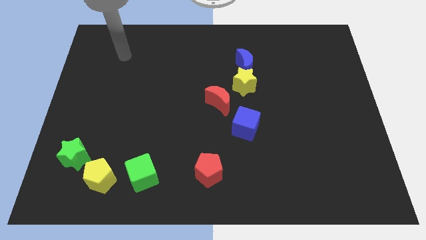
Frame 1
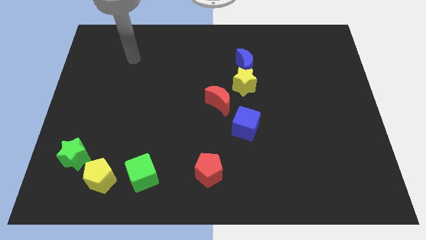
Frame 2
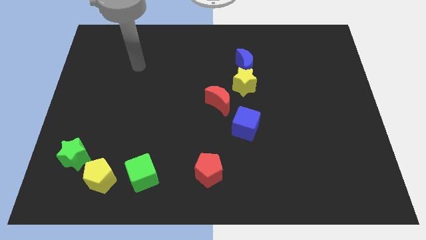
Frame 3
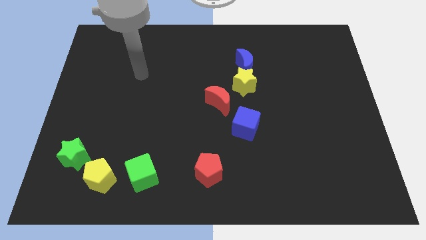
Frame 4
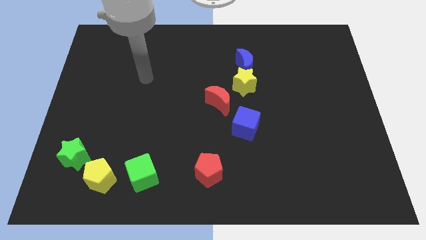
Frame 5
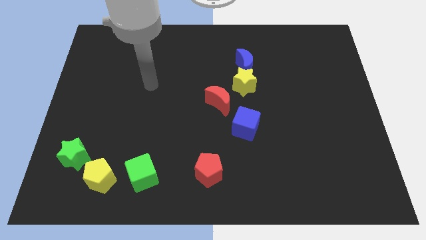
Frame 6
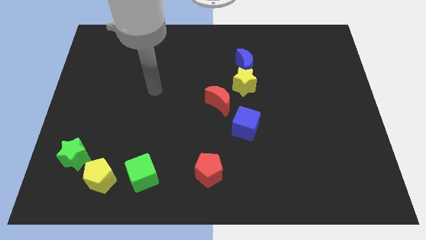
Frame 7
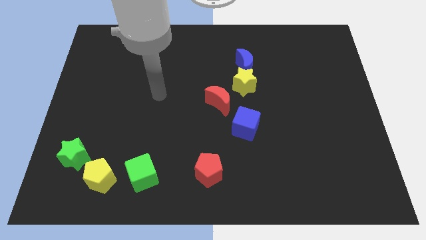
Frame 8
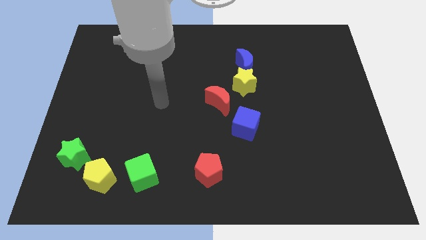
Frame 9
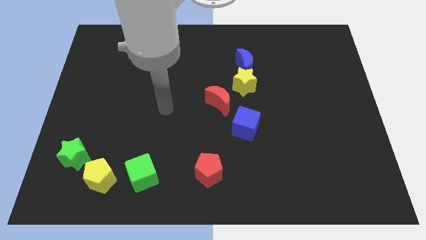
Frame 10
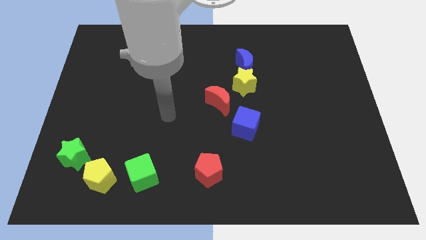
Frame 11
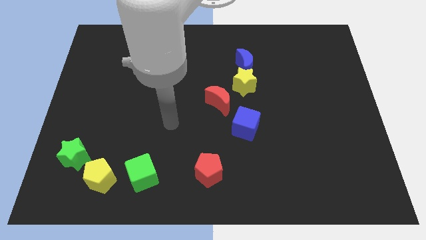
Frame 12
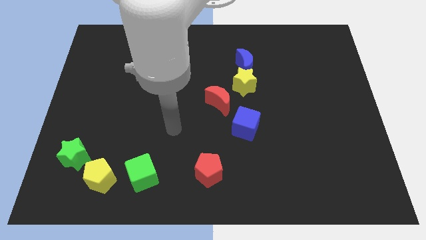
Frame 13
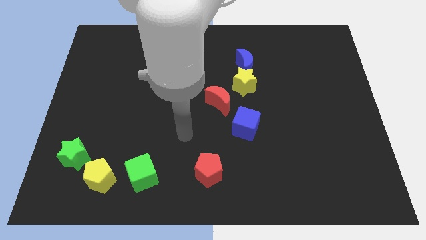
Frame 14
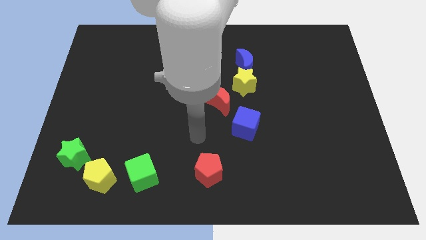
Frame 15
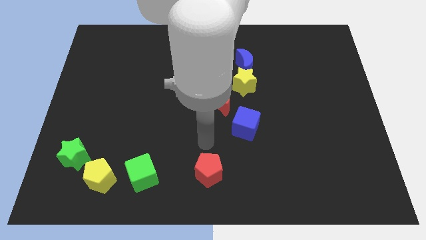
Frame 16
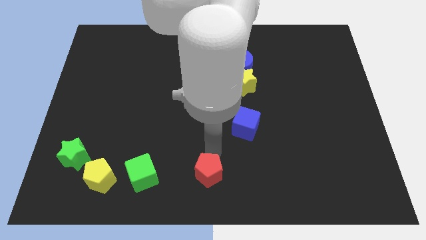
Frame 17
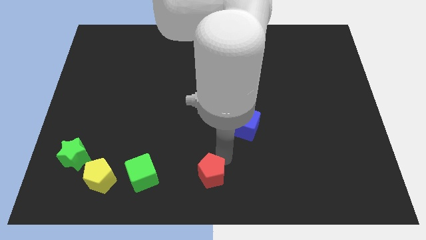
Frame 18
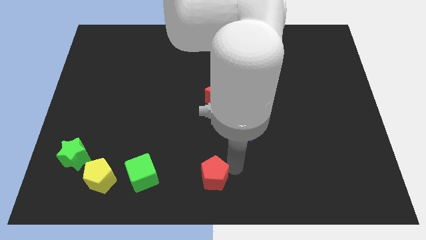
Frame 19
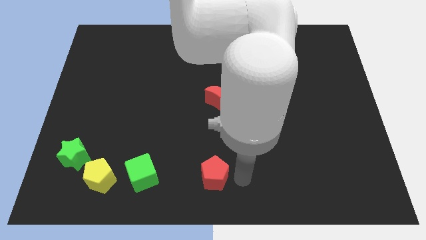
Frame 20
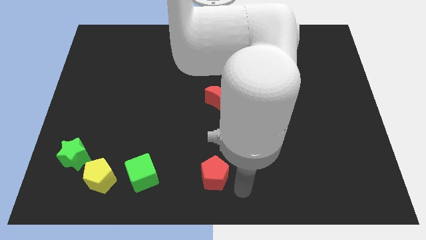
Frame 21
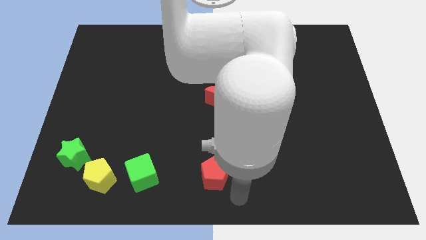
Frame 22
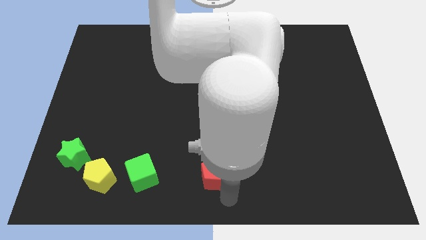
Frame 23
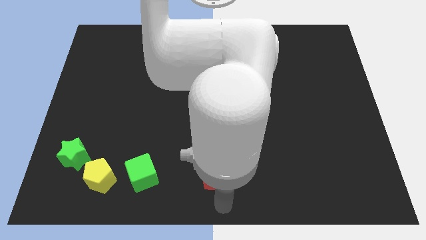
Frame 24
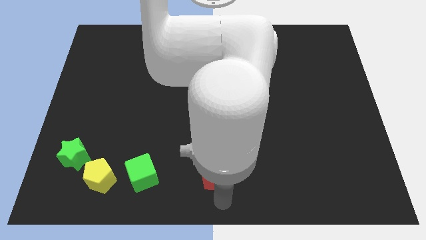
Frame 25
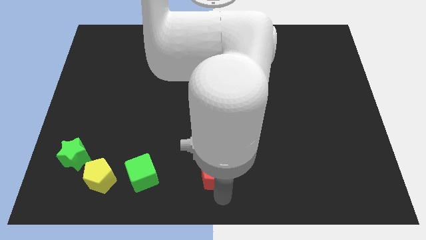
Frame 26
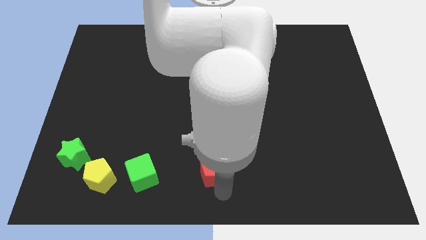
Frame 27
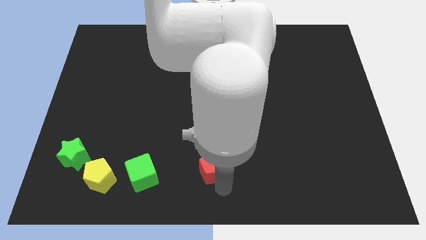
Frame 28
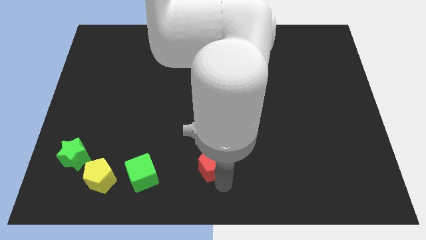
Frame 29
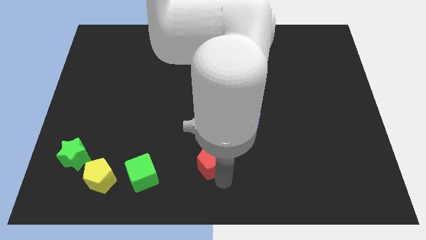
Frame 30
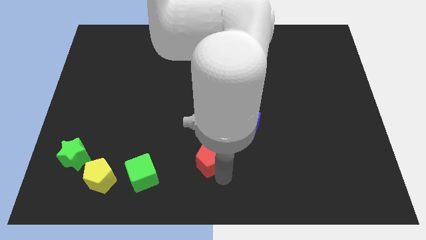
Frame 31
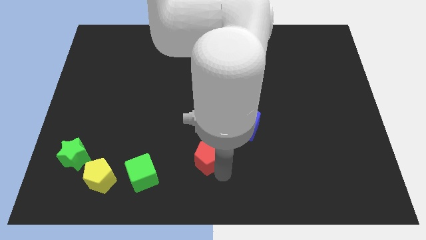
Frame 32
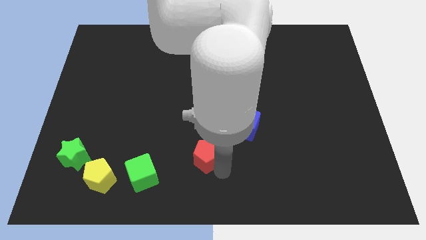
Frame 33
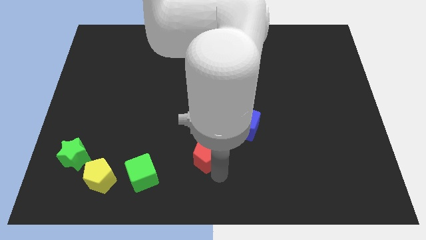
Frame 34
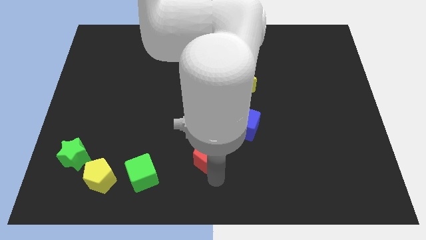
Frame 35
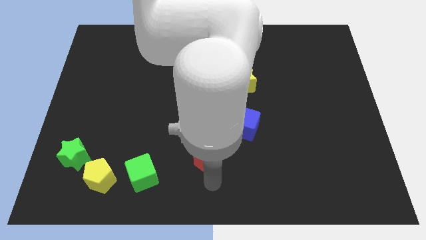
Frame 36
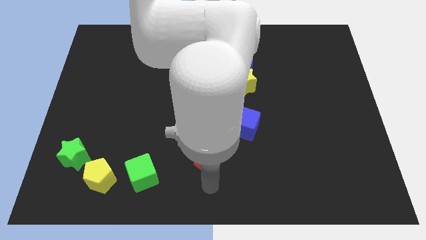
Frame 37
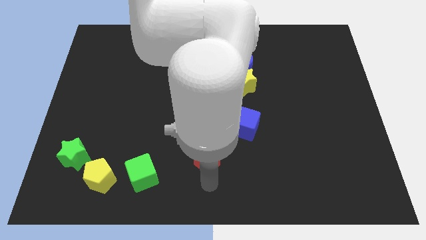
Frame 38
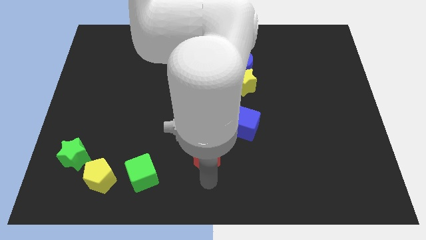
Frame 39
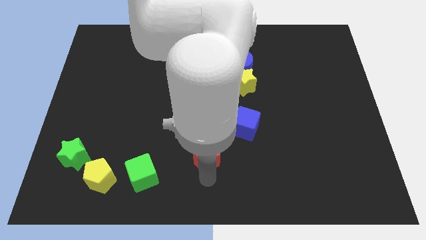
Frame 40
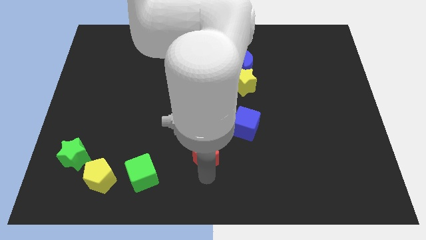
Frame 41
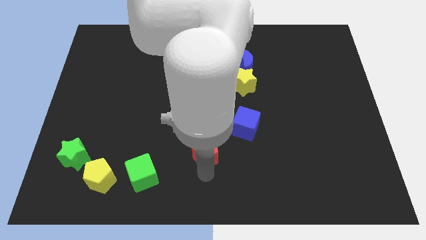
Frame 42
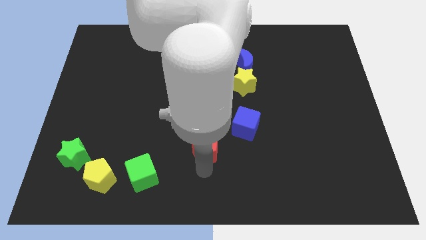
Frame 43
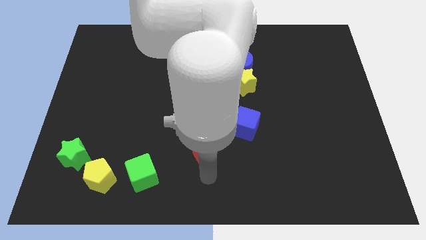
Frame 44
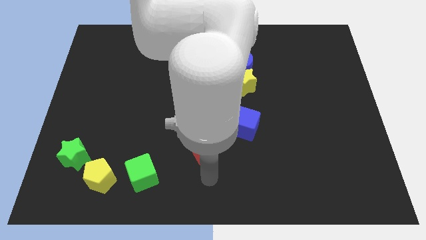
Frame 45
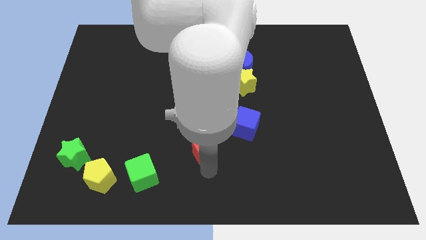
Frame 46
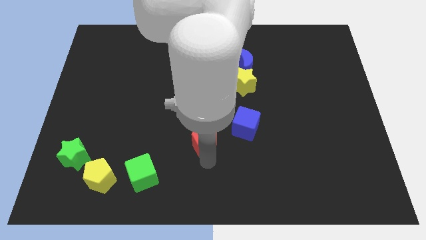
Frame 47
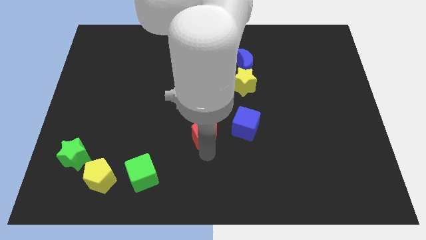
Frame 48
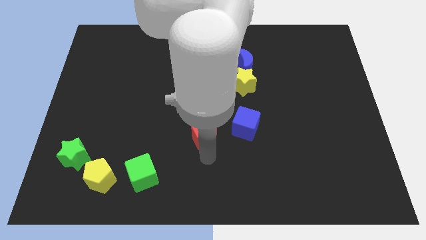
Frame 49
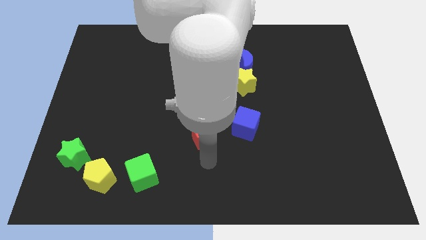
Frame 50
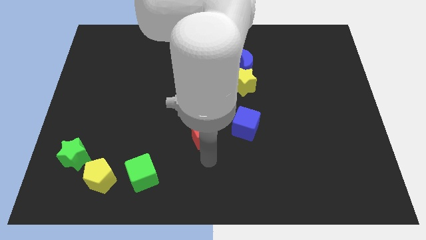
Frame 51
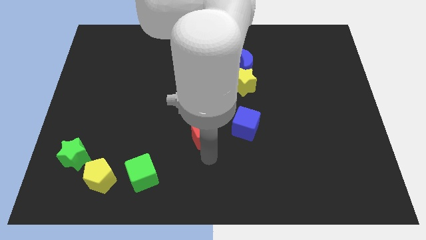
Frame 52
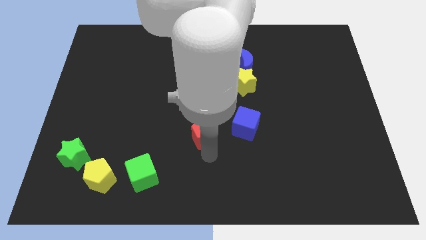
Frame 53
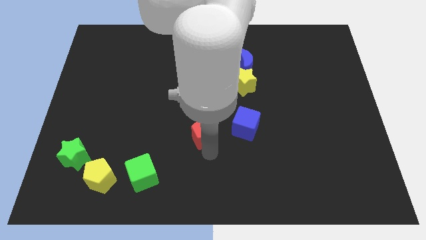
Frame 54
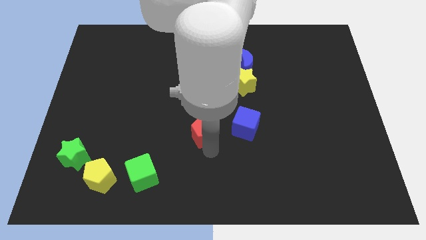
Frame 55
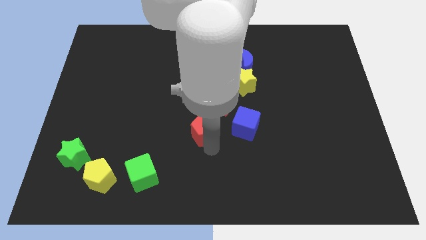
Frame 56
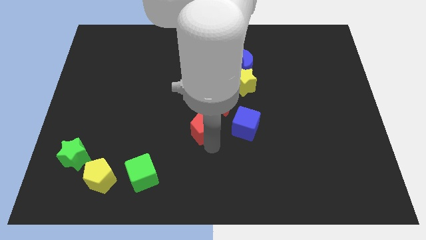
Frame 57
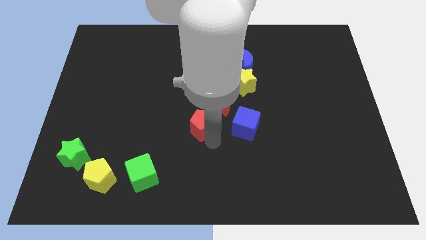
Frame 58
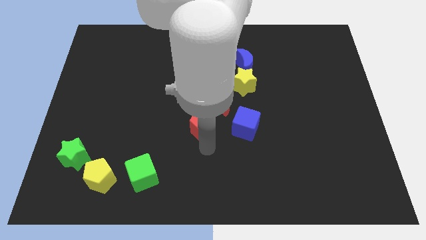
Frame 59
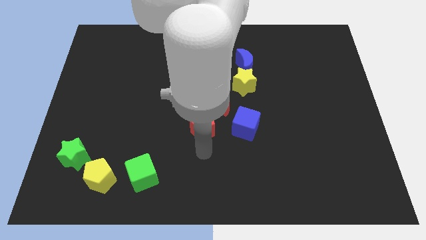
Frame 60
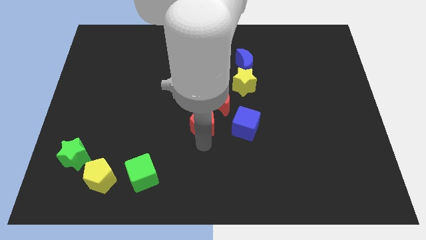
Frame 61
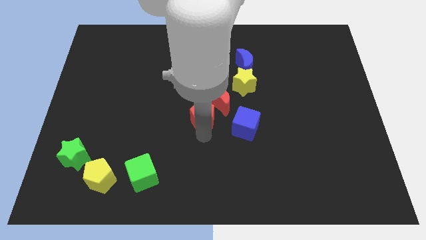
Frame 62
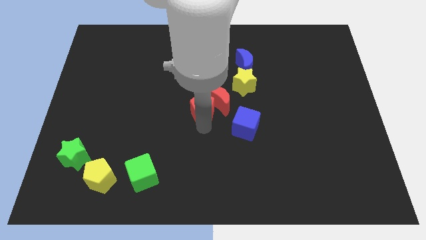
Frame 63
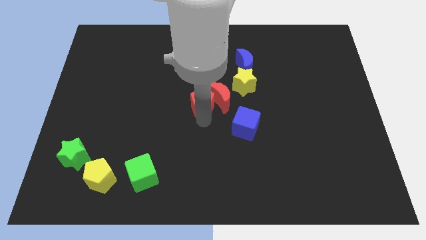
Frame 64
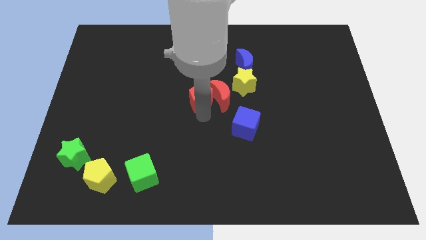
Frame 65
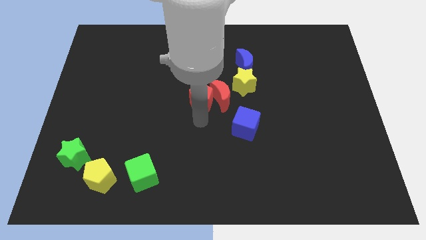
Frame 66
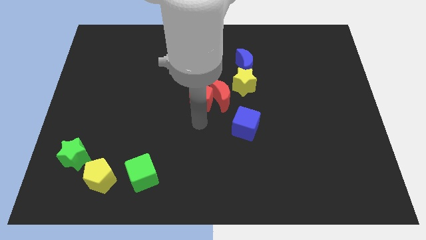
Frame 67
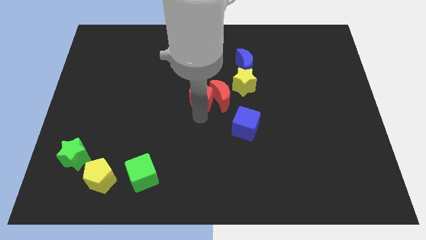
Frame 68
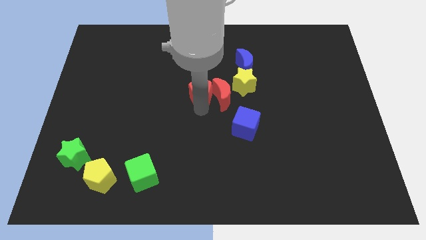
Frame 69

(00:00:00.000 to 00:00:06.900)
push the red pentagon up

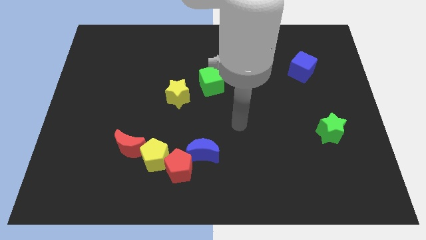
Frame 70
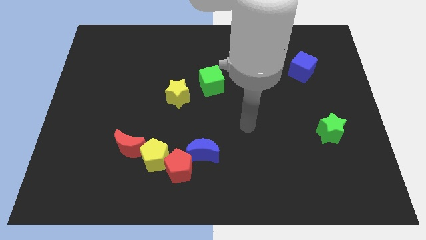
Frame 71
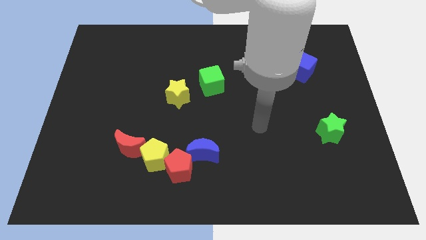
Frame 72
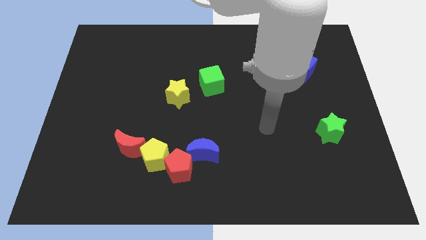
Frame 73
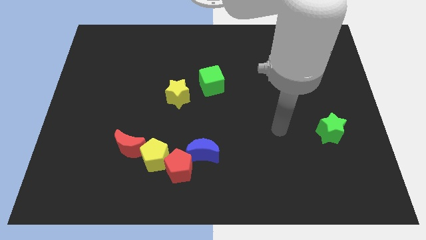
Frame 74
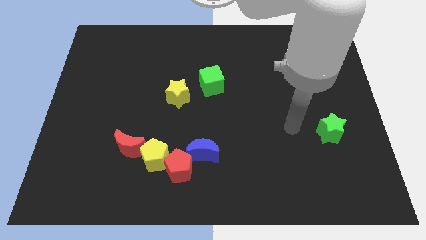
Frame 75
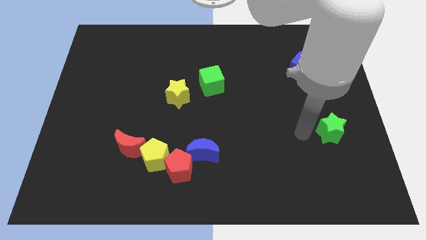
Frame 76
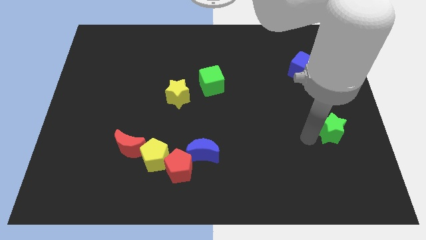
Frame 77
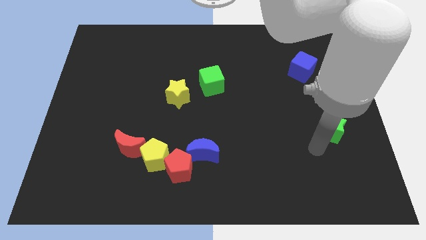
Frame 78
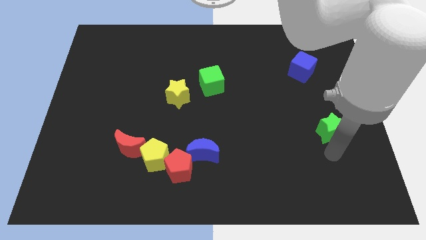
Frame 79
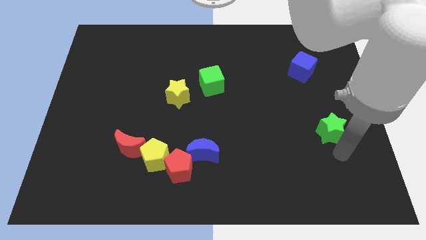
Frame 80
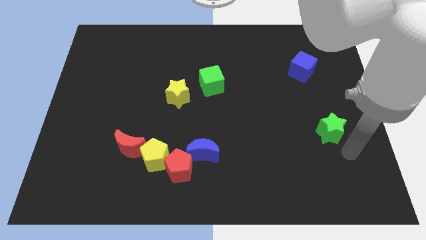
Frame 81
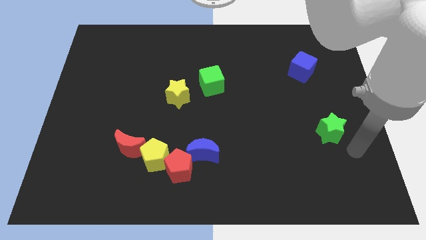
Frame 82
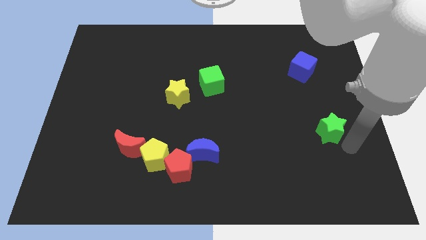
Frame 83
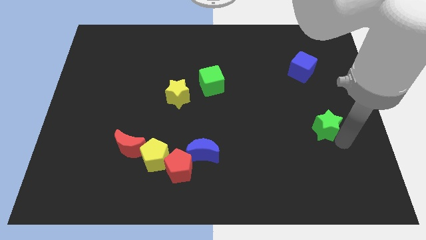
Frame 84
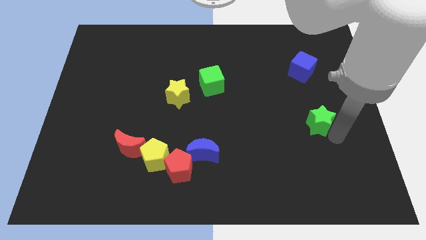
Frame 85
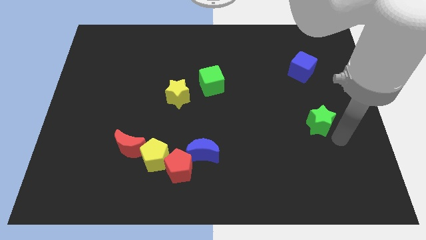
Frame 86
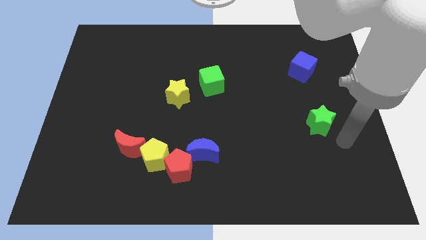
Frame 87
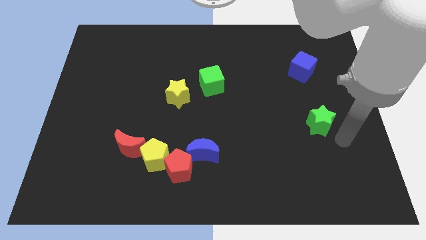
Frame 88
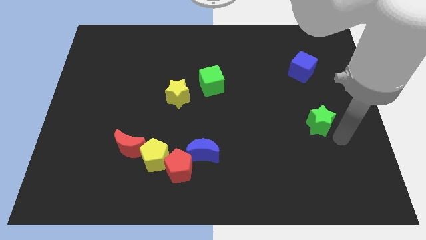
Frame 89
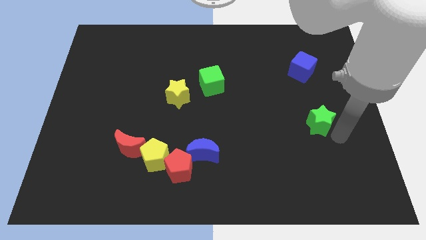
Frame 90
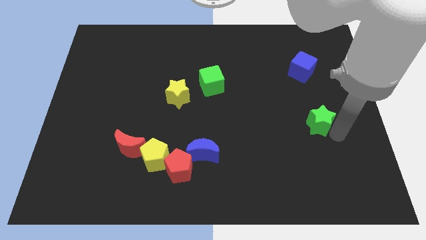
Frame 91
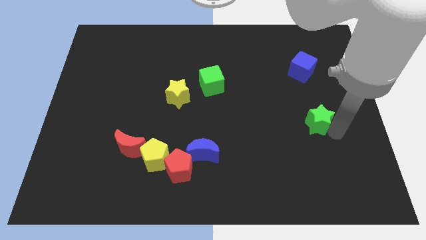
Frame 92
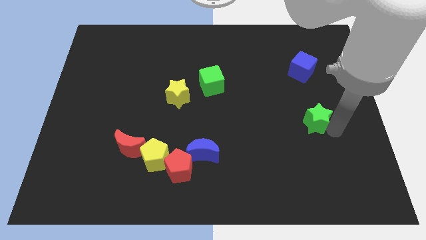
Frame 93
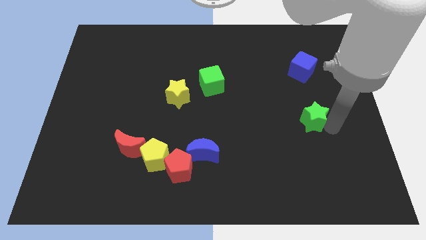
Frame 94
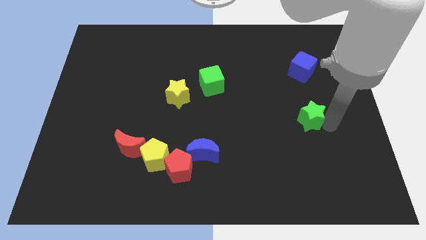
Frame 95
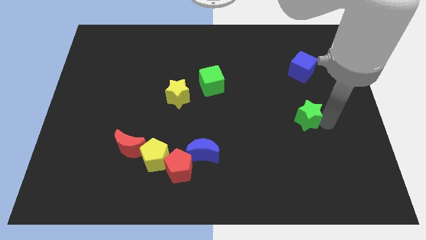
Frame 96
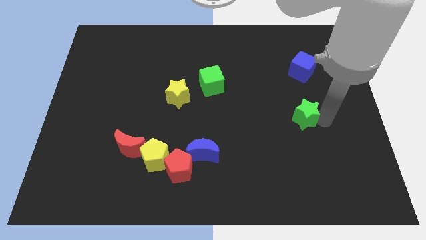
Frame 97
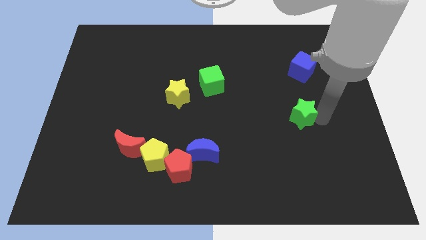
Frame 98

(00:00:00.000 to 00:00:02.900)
slightly slide the green star upwards and then to the left
